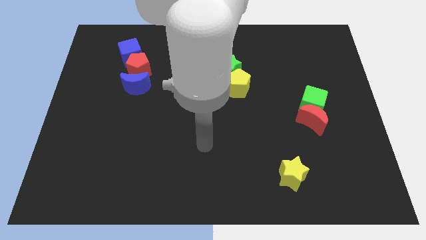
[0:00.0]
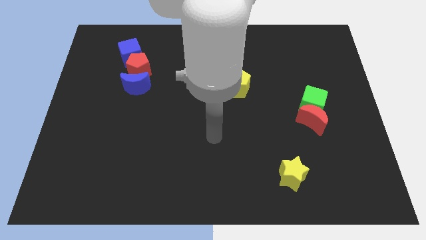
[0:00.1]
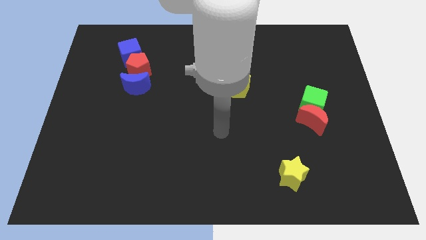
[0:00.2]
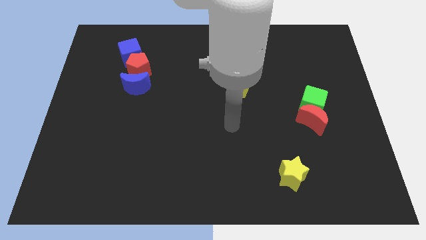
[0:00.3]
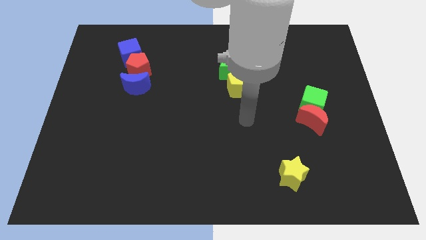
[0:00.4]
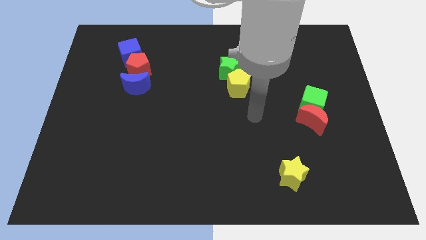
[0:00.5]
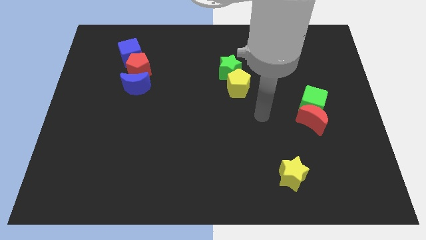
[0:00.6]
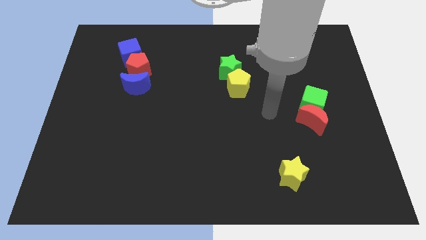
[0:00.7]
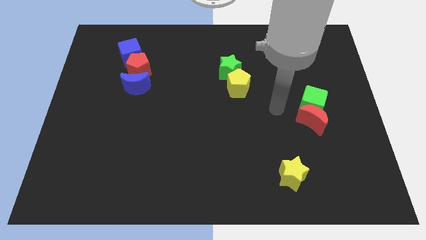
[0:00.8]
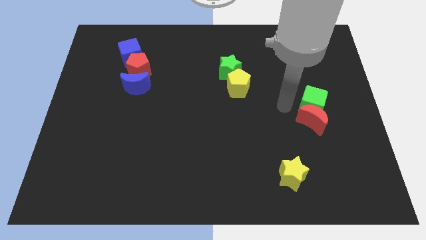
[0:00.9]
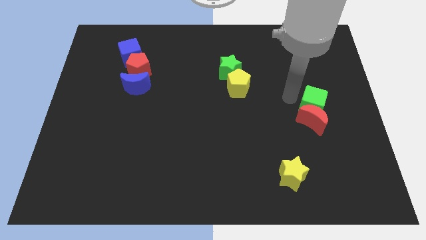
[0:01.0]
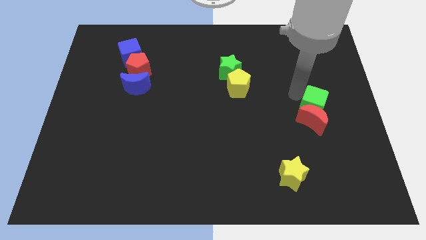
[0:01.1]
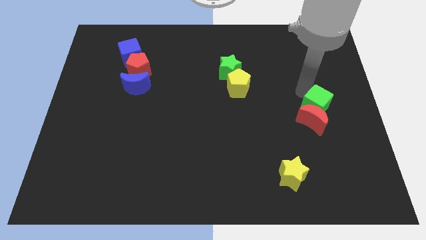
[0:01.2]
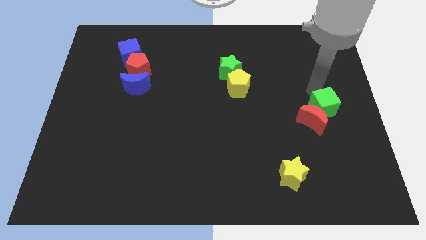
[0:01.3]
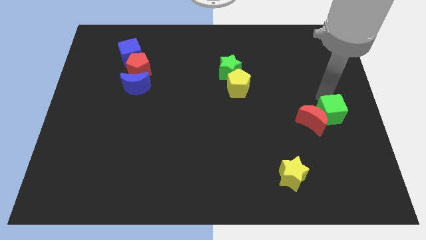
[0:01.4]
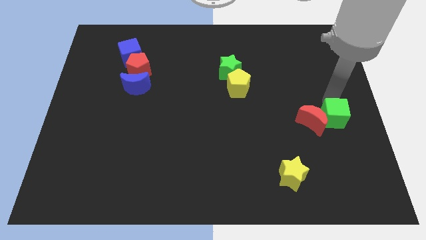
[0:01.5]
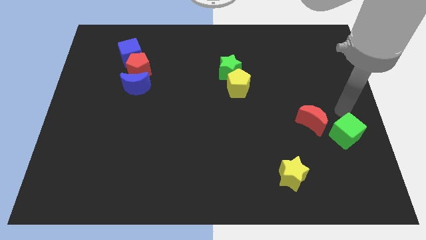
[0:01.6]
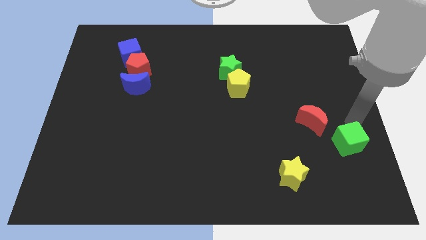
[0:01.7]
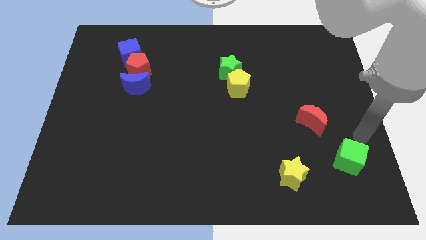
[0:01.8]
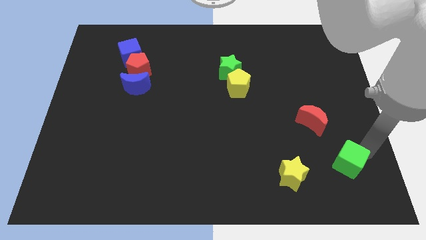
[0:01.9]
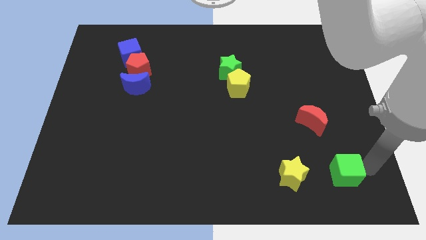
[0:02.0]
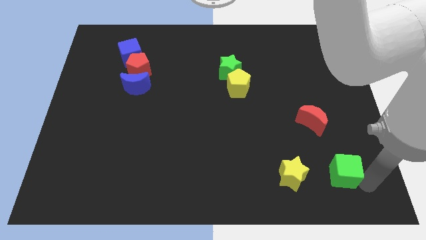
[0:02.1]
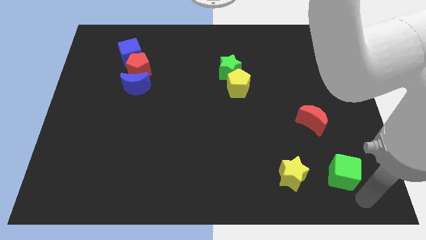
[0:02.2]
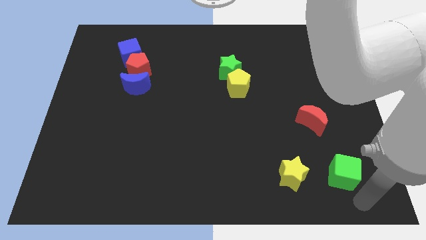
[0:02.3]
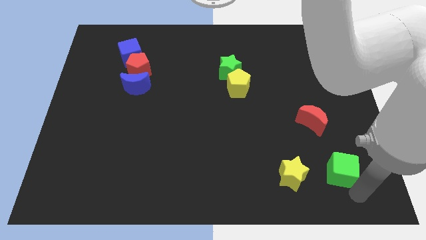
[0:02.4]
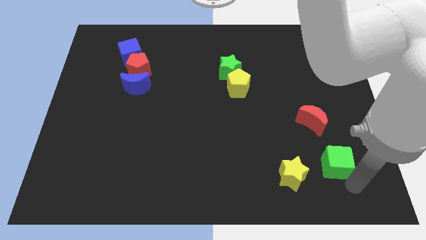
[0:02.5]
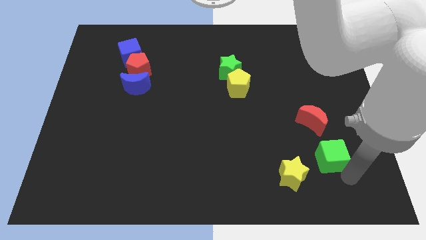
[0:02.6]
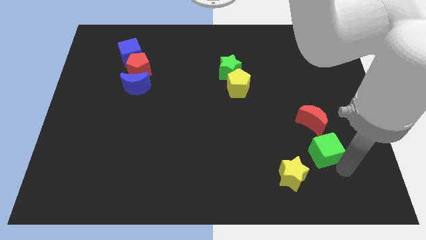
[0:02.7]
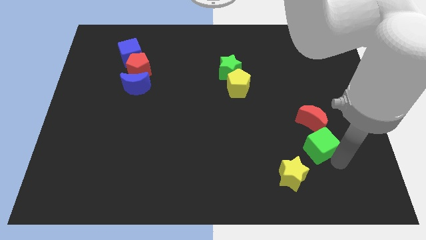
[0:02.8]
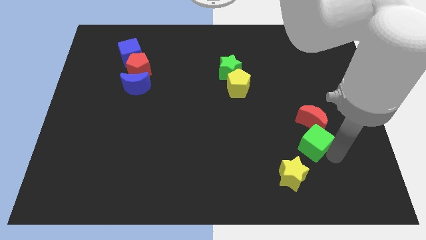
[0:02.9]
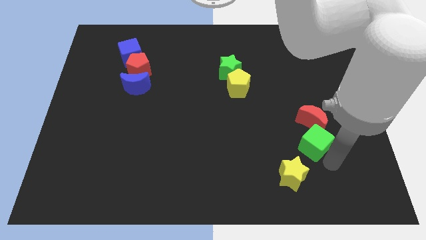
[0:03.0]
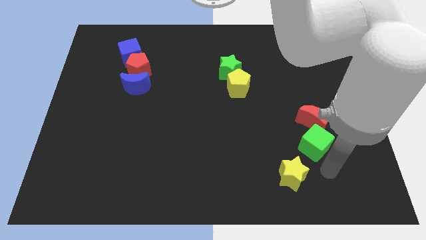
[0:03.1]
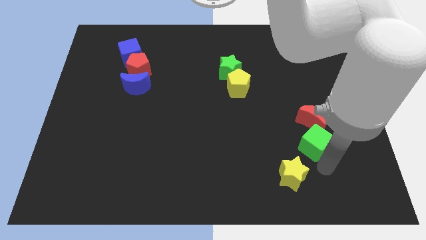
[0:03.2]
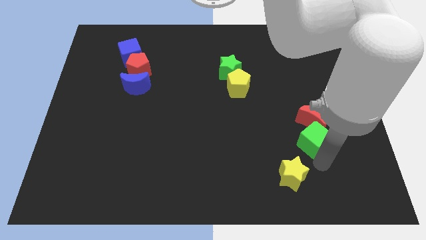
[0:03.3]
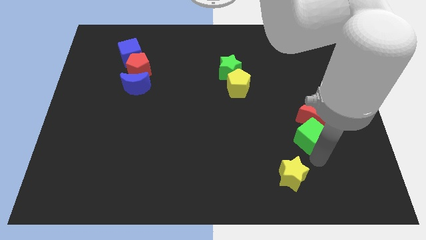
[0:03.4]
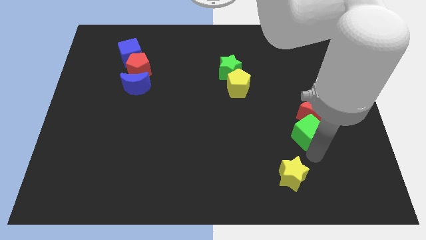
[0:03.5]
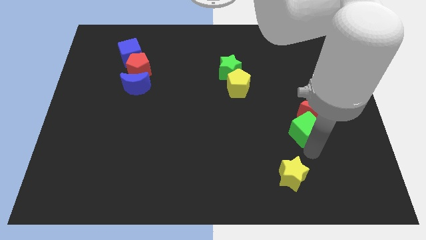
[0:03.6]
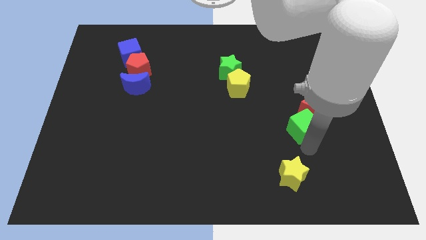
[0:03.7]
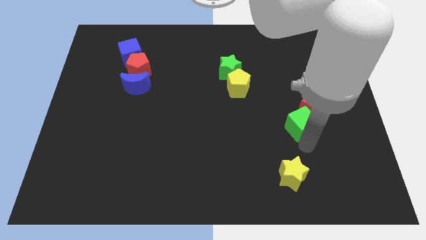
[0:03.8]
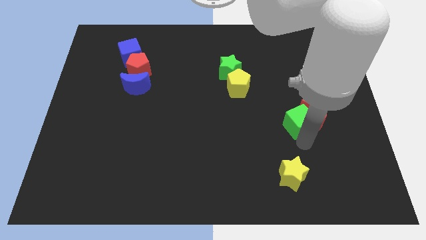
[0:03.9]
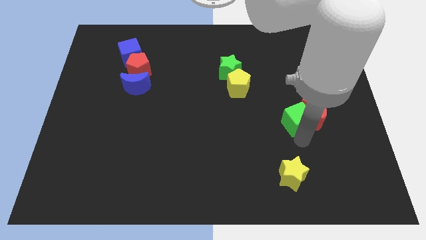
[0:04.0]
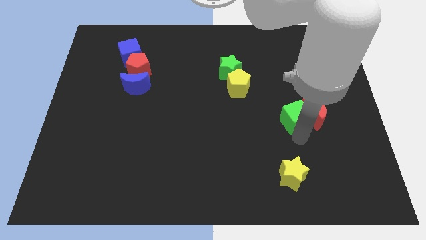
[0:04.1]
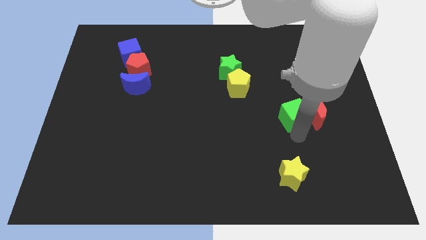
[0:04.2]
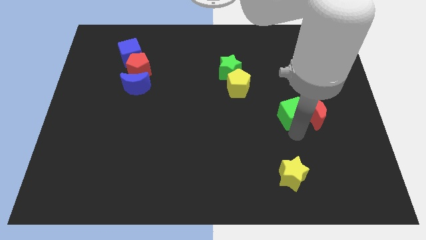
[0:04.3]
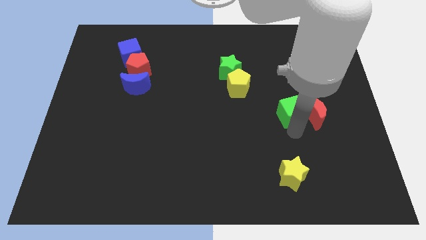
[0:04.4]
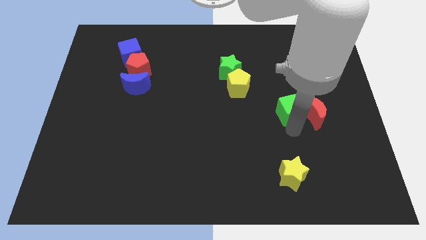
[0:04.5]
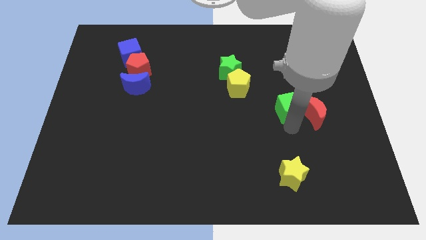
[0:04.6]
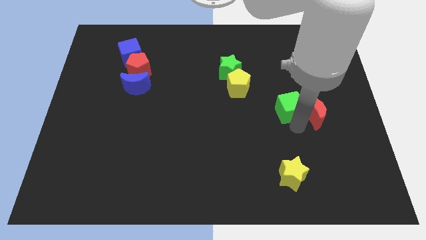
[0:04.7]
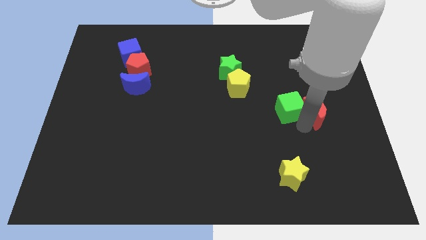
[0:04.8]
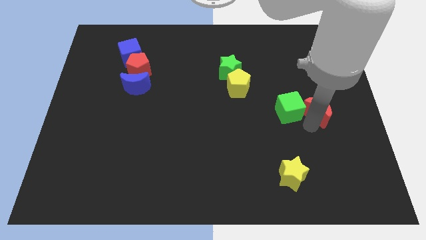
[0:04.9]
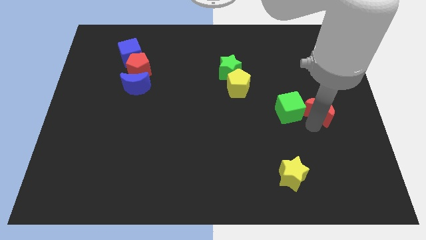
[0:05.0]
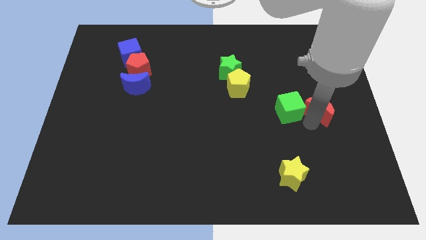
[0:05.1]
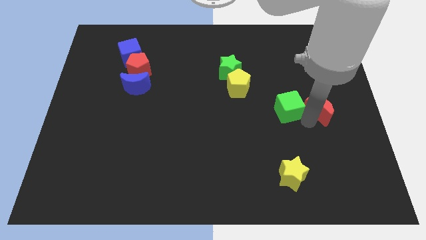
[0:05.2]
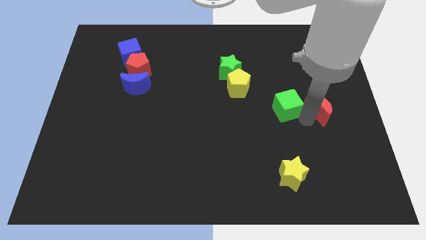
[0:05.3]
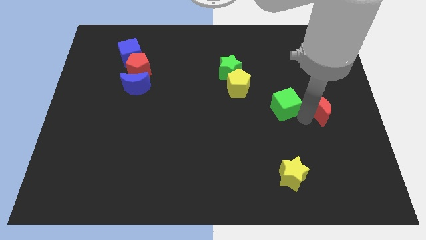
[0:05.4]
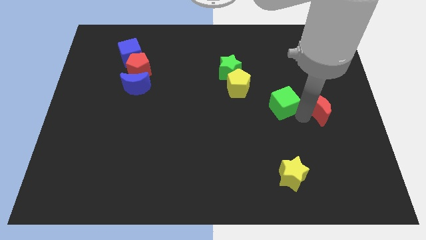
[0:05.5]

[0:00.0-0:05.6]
slightly slide the green cube left

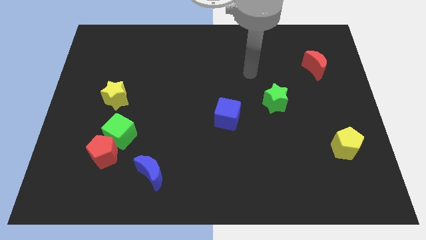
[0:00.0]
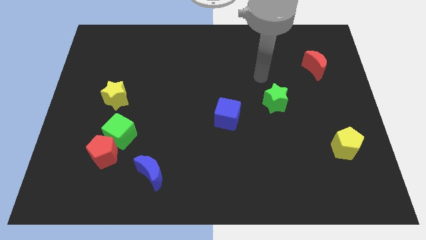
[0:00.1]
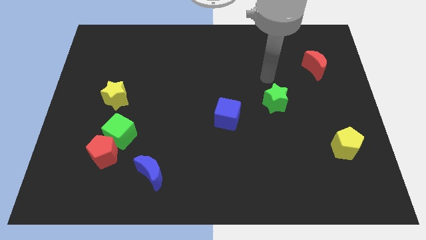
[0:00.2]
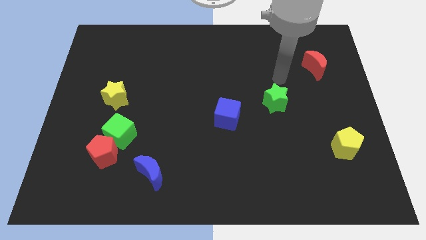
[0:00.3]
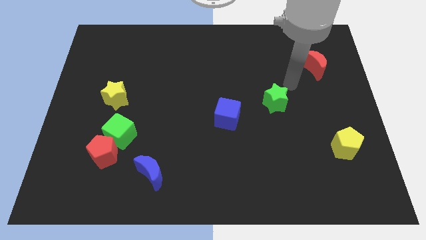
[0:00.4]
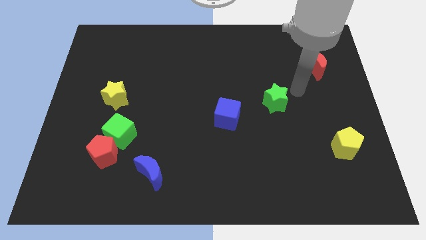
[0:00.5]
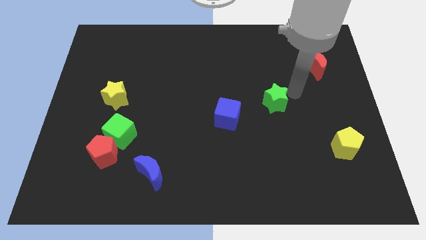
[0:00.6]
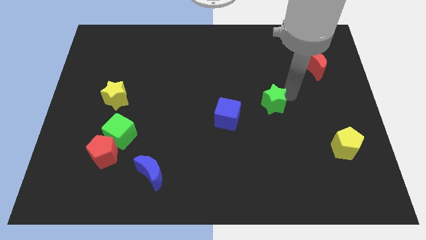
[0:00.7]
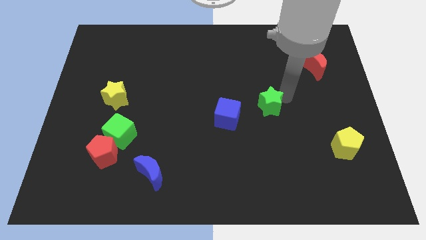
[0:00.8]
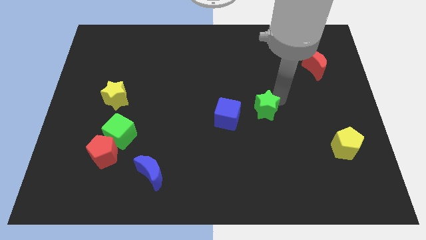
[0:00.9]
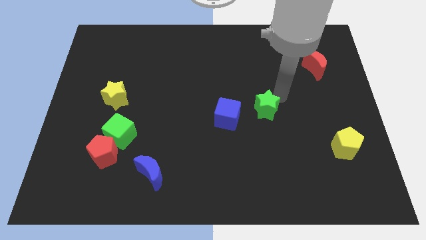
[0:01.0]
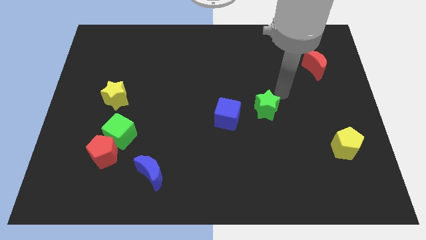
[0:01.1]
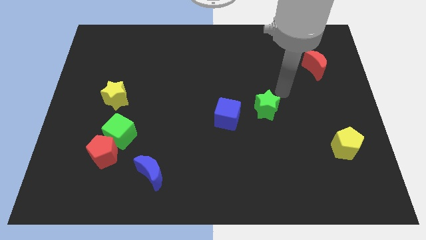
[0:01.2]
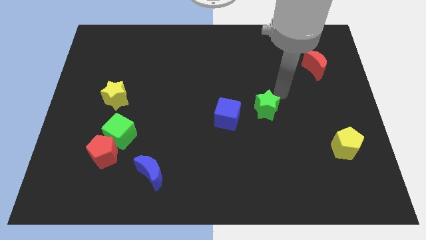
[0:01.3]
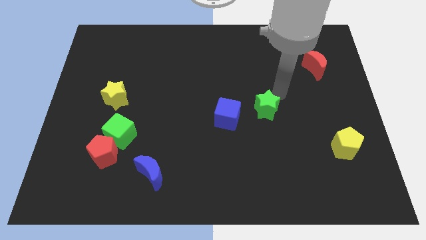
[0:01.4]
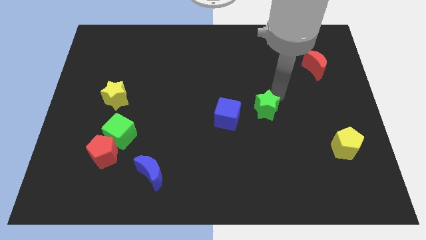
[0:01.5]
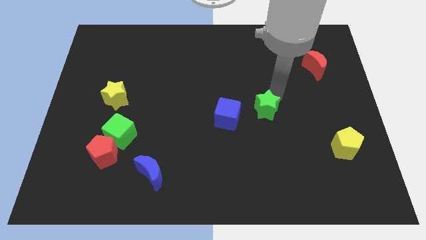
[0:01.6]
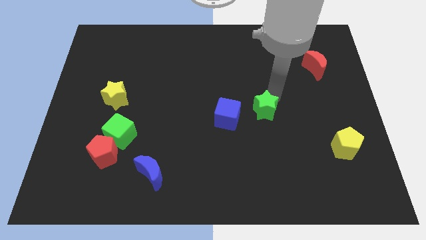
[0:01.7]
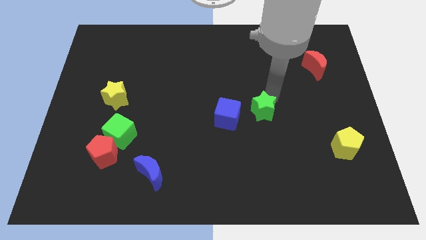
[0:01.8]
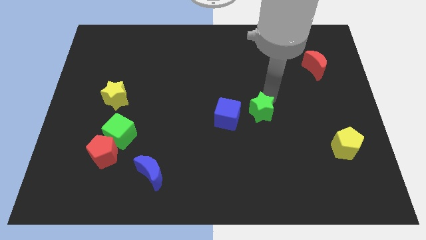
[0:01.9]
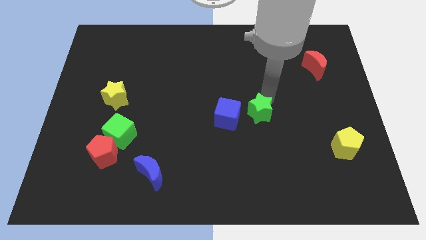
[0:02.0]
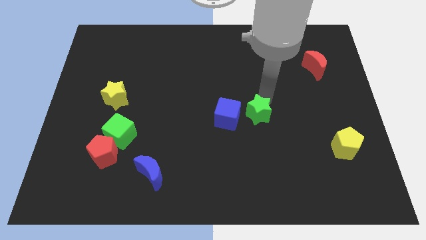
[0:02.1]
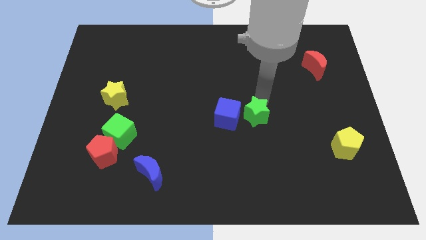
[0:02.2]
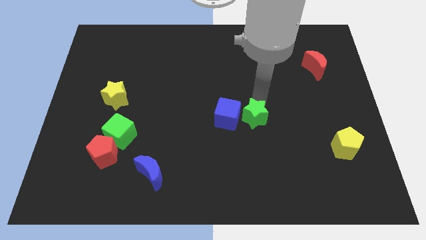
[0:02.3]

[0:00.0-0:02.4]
slightly push the green star downwards and left diagonally

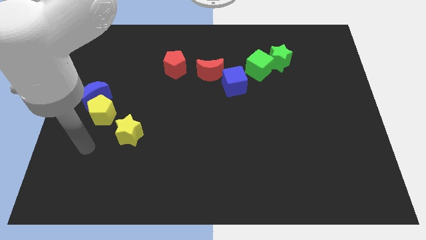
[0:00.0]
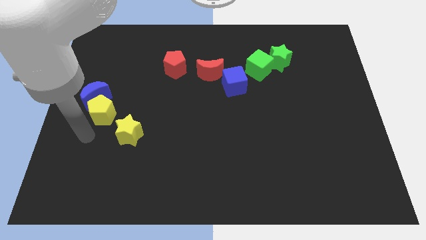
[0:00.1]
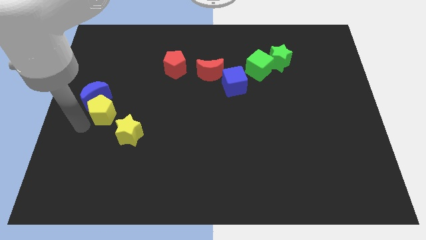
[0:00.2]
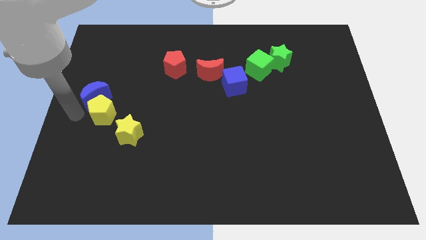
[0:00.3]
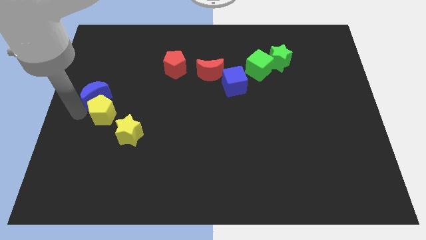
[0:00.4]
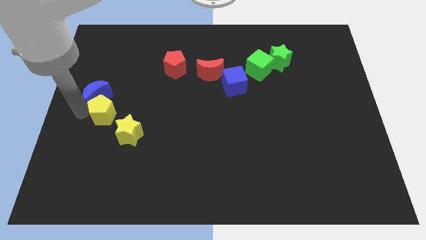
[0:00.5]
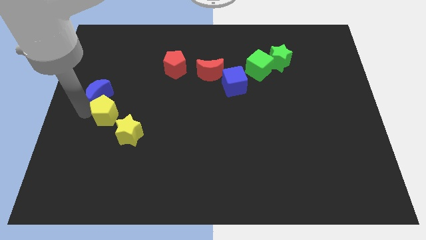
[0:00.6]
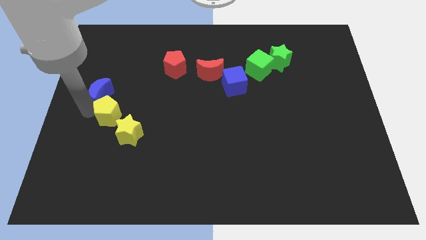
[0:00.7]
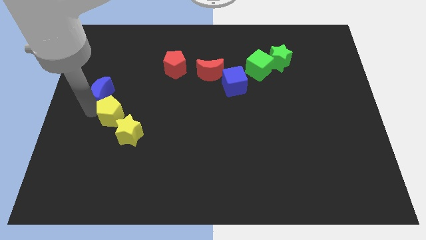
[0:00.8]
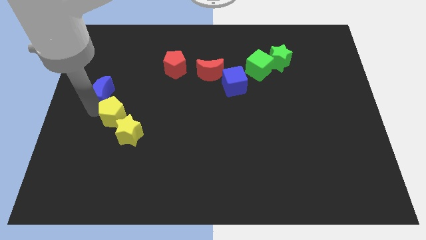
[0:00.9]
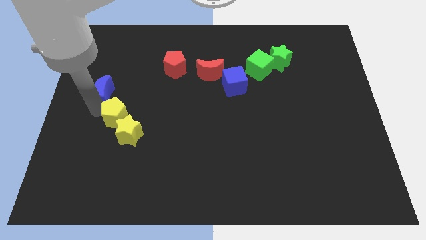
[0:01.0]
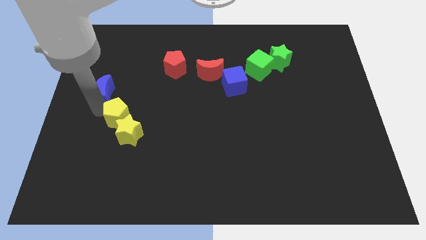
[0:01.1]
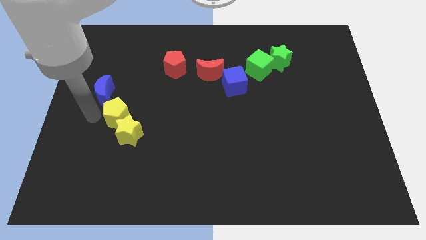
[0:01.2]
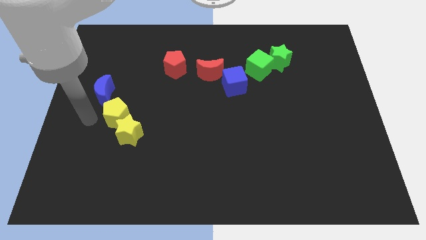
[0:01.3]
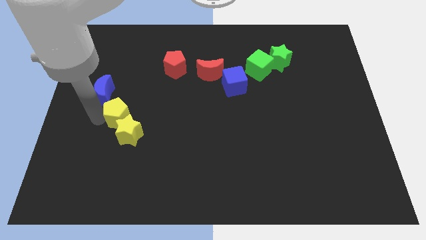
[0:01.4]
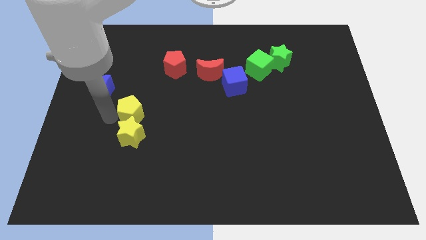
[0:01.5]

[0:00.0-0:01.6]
slightly move the yellow pentagon right
